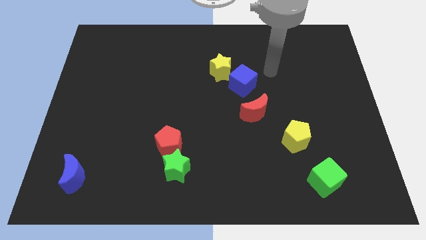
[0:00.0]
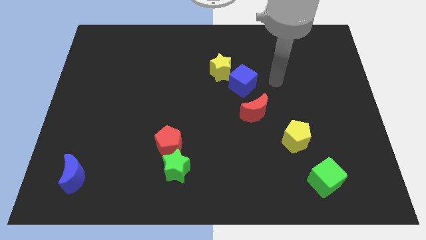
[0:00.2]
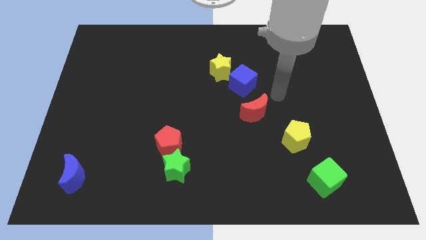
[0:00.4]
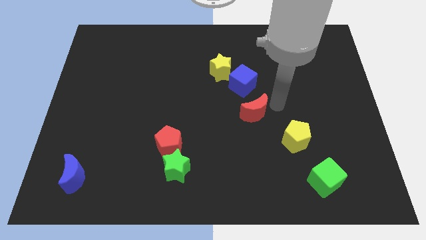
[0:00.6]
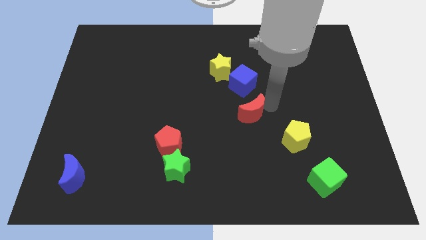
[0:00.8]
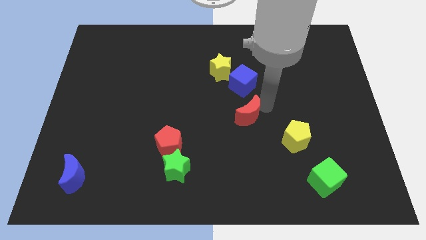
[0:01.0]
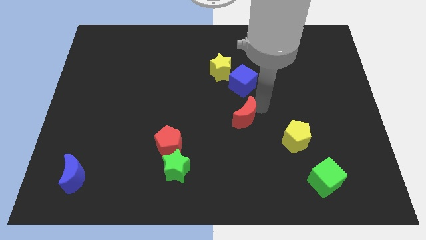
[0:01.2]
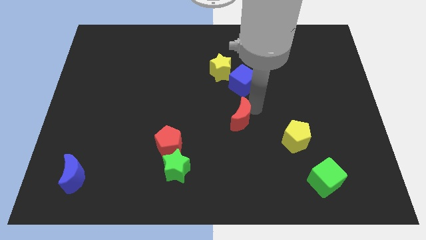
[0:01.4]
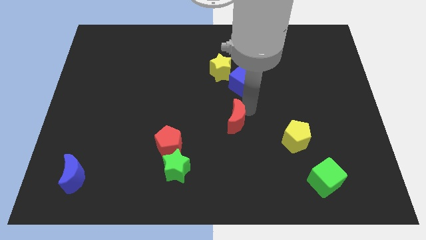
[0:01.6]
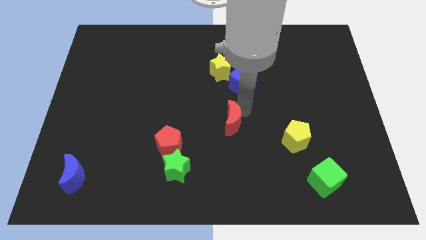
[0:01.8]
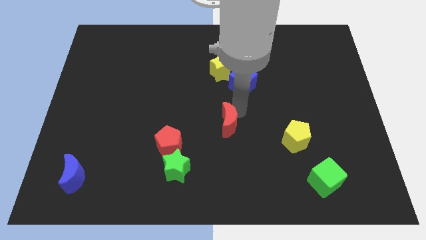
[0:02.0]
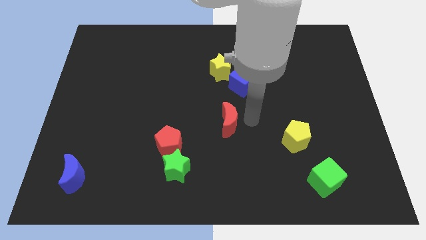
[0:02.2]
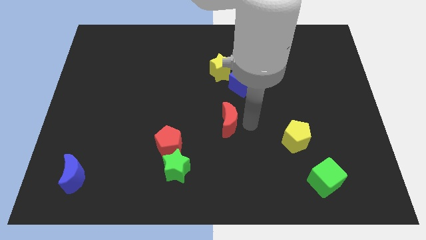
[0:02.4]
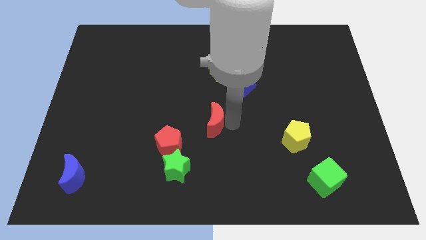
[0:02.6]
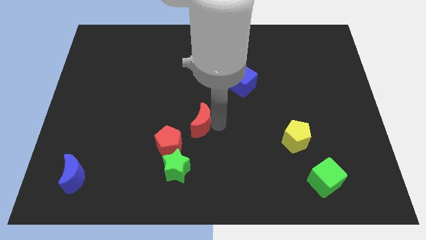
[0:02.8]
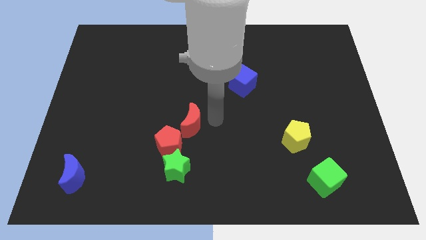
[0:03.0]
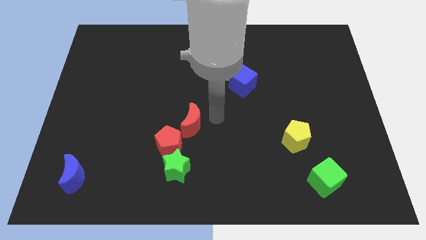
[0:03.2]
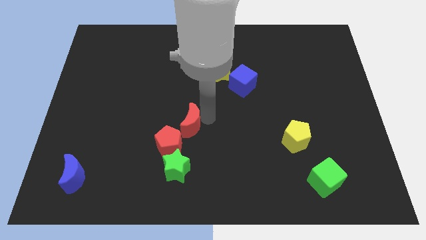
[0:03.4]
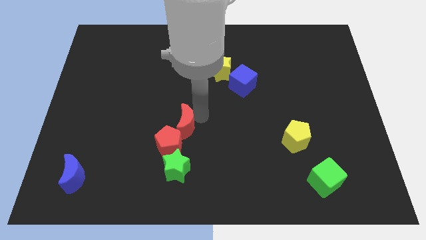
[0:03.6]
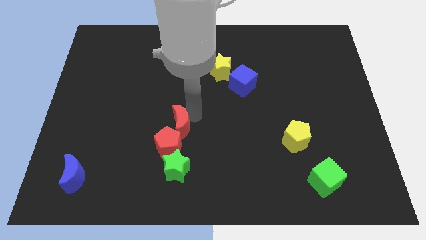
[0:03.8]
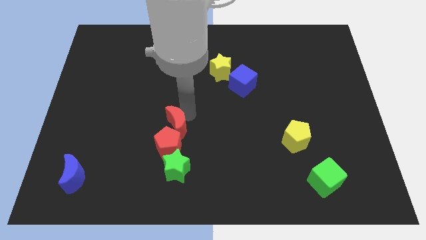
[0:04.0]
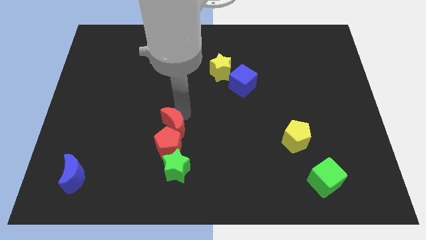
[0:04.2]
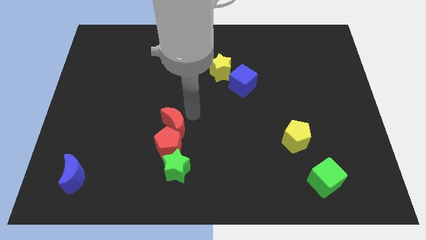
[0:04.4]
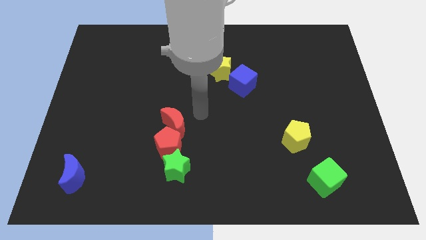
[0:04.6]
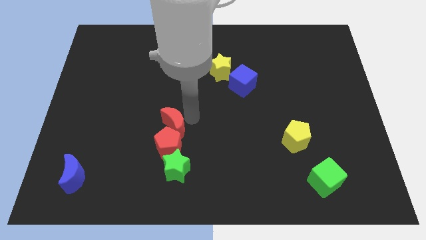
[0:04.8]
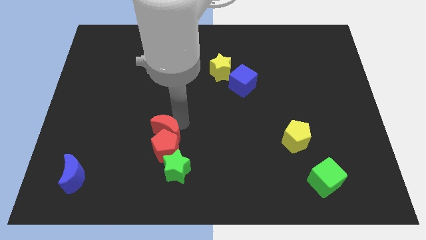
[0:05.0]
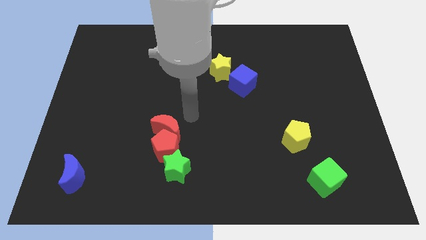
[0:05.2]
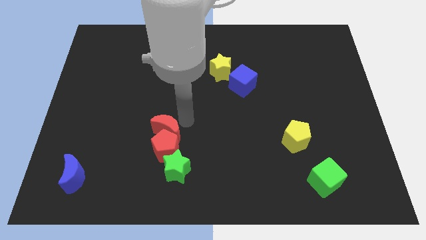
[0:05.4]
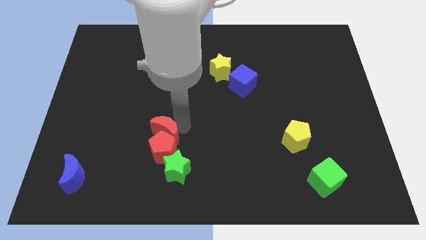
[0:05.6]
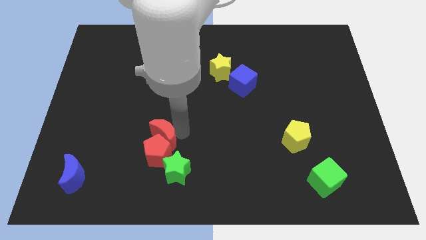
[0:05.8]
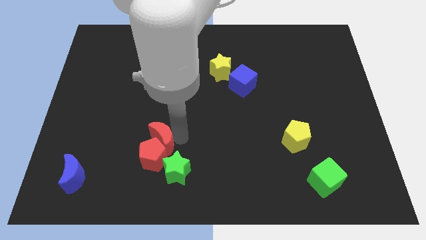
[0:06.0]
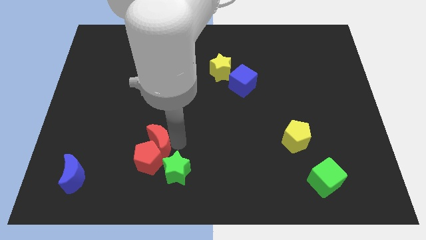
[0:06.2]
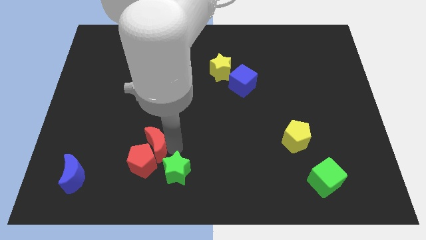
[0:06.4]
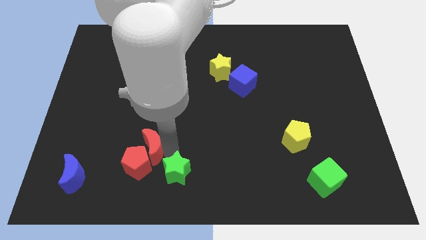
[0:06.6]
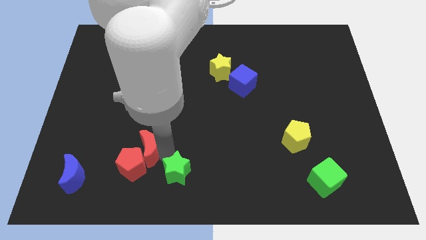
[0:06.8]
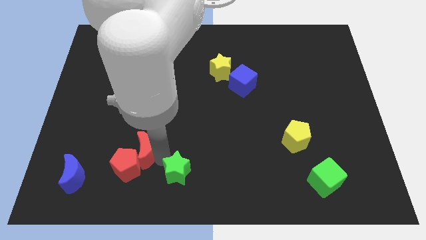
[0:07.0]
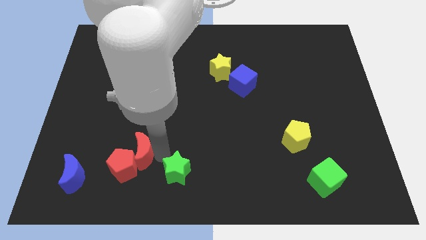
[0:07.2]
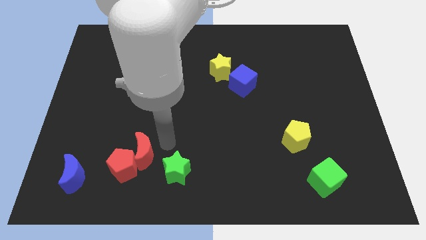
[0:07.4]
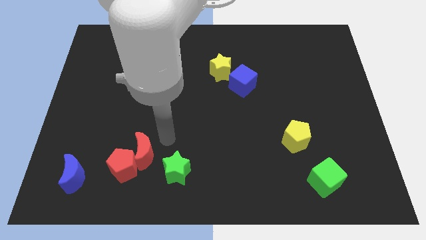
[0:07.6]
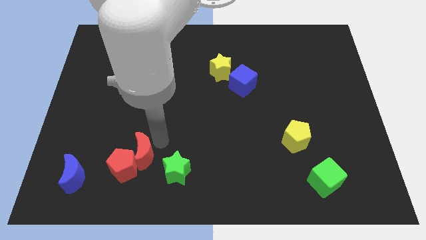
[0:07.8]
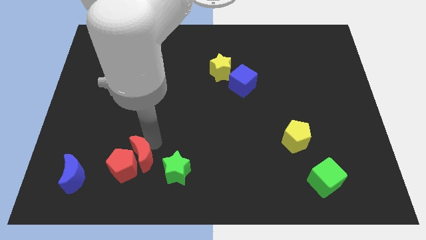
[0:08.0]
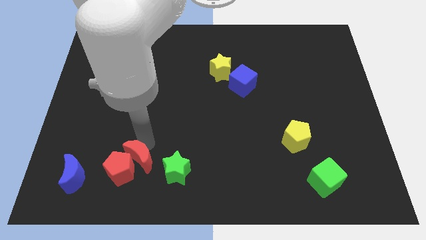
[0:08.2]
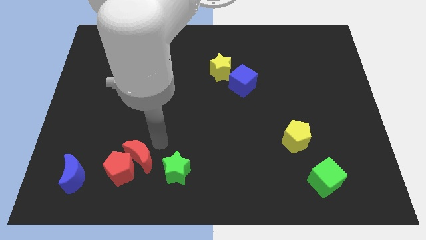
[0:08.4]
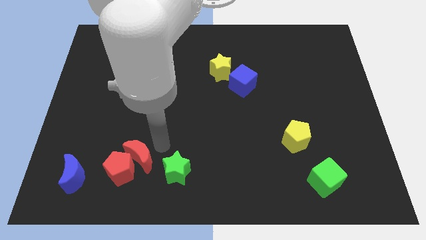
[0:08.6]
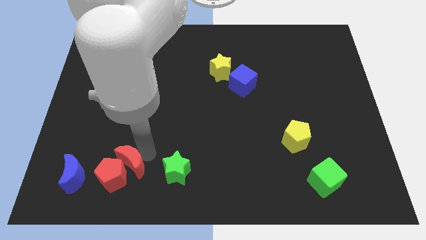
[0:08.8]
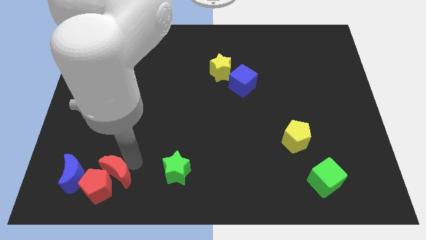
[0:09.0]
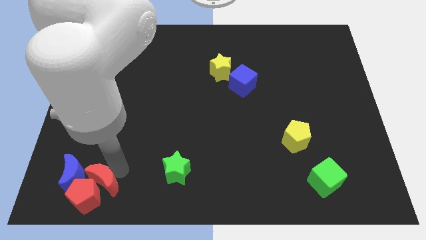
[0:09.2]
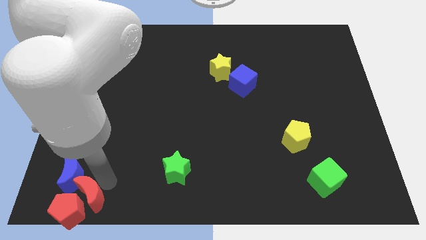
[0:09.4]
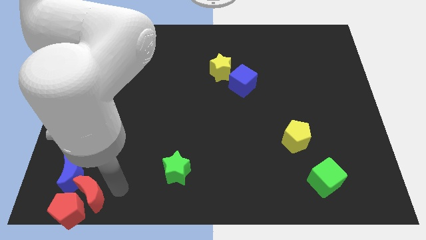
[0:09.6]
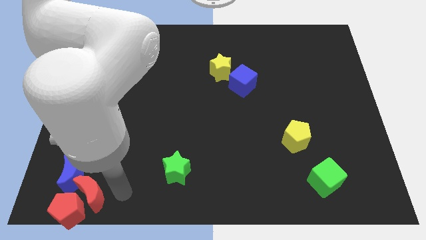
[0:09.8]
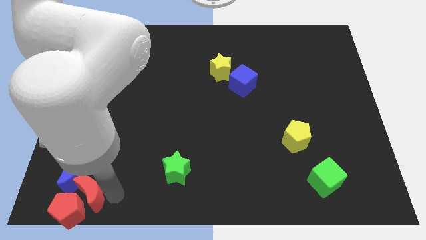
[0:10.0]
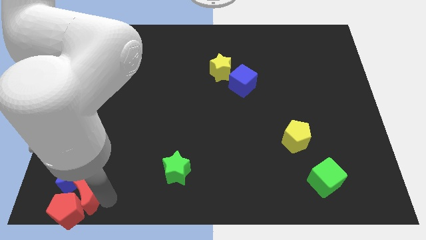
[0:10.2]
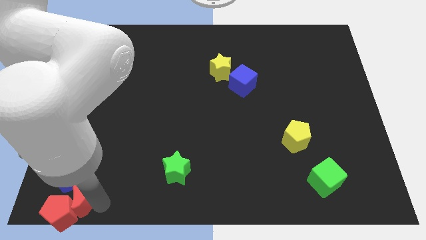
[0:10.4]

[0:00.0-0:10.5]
slide the red moon to the bottom left corner
